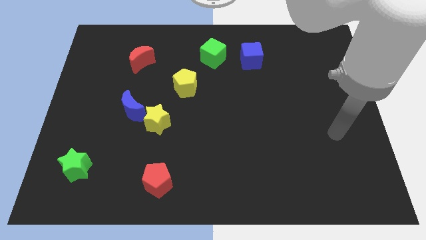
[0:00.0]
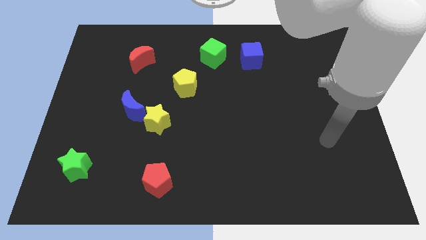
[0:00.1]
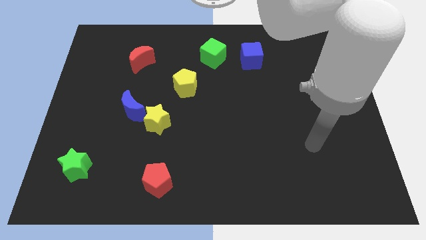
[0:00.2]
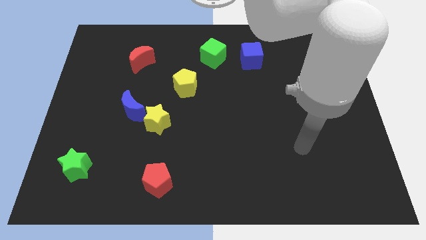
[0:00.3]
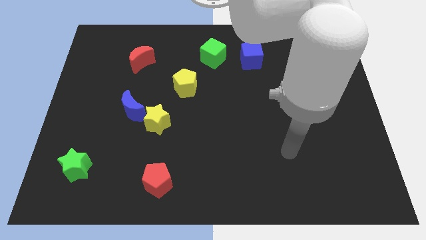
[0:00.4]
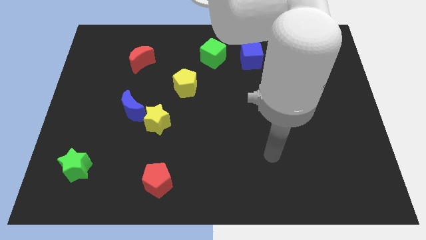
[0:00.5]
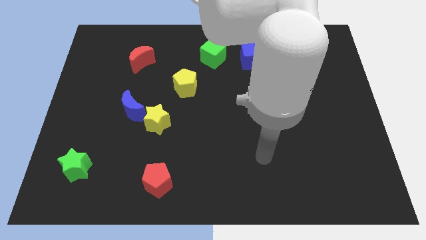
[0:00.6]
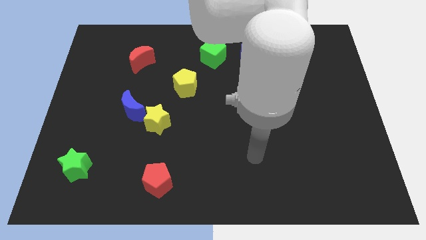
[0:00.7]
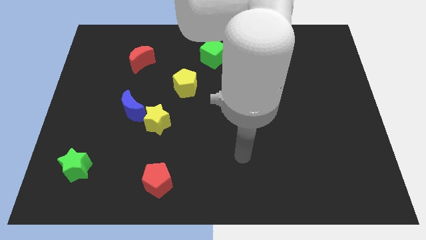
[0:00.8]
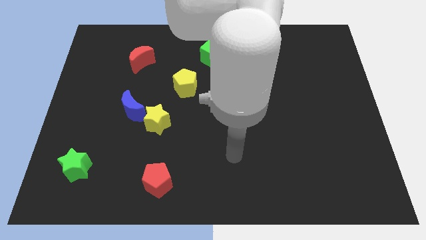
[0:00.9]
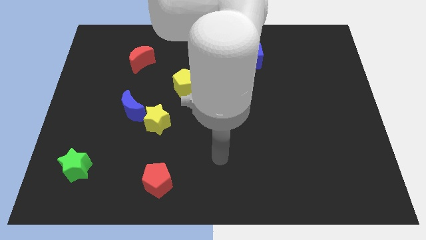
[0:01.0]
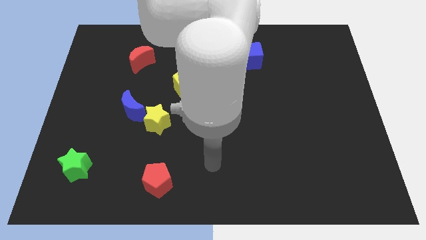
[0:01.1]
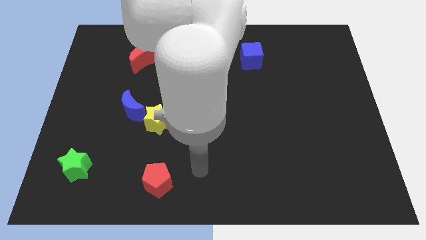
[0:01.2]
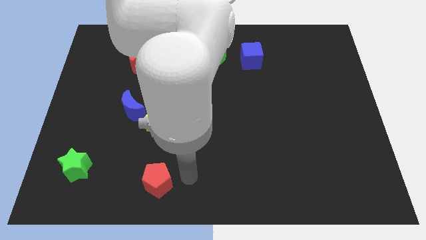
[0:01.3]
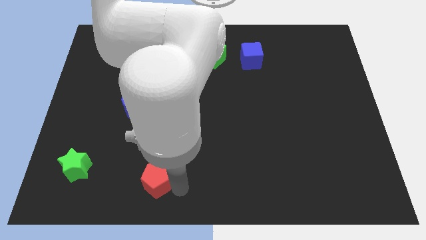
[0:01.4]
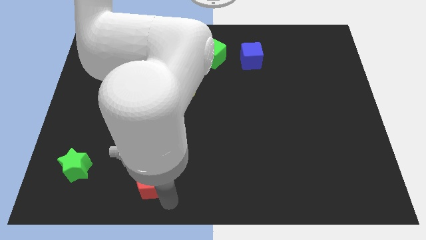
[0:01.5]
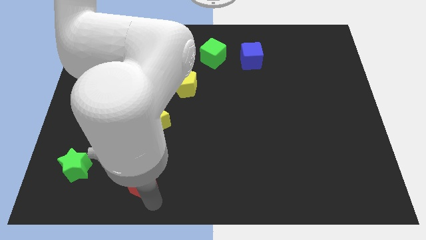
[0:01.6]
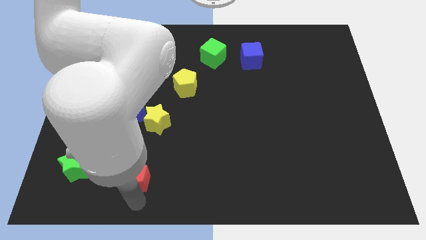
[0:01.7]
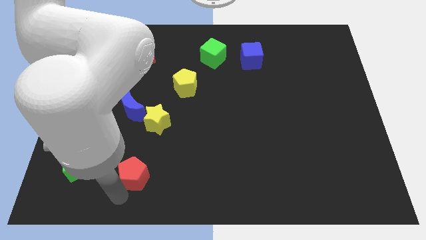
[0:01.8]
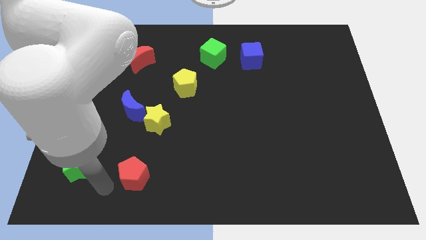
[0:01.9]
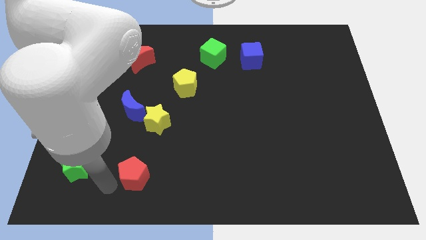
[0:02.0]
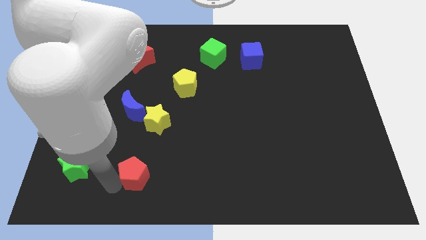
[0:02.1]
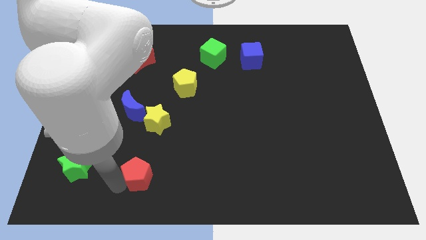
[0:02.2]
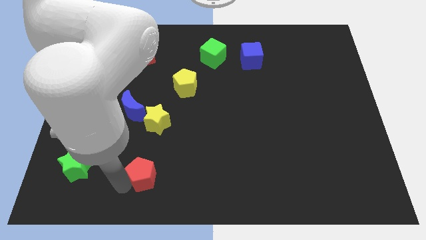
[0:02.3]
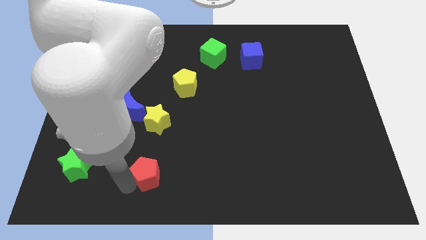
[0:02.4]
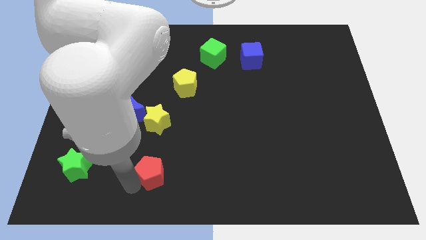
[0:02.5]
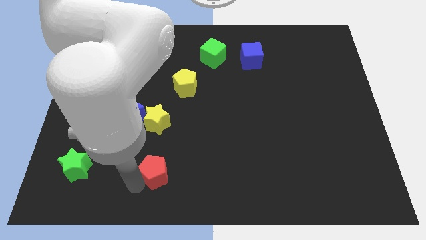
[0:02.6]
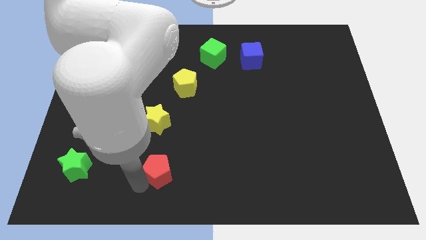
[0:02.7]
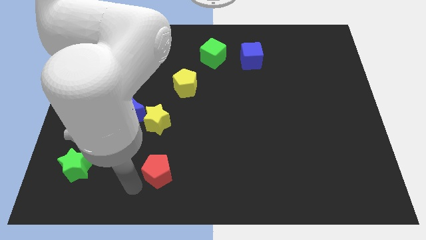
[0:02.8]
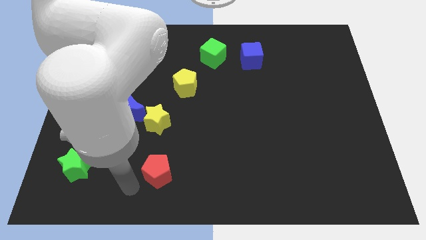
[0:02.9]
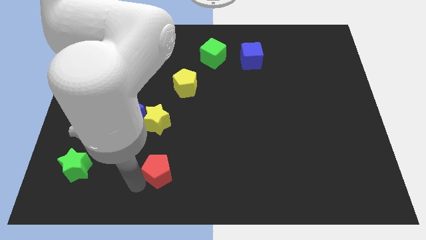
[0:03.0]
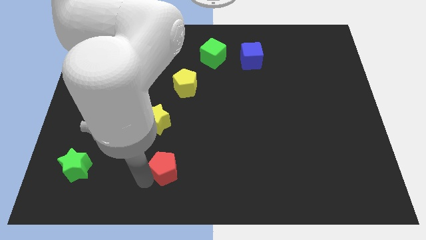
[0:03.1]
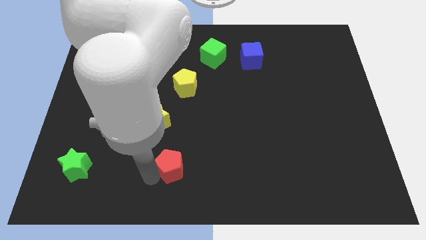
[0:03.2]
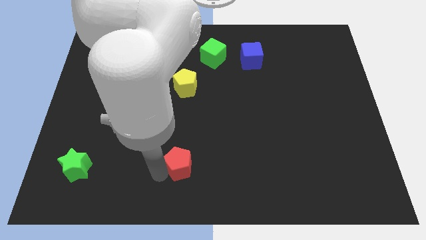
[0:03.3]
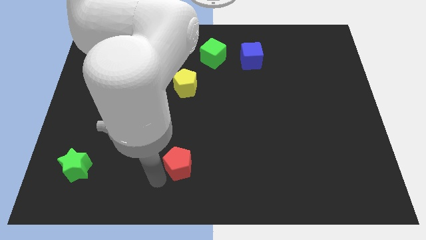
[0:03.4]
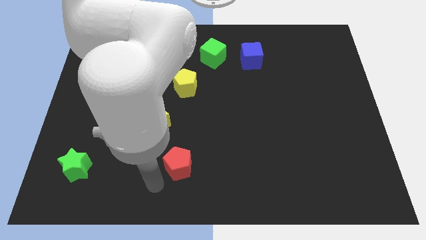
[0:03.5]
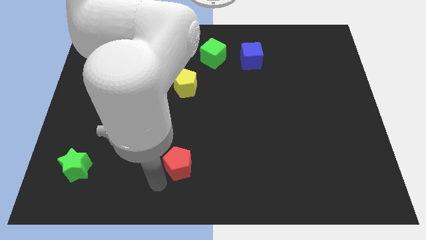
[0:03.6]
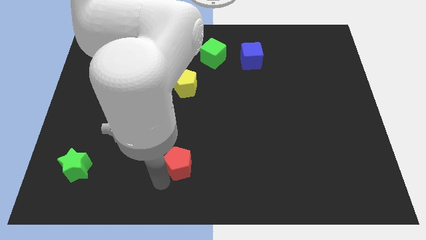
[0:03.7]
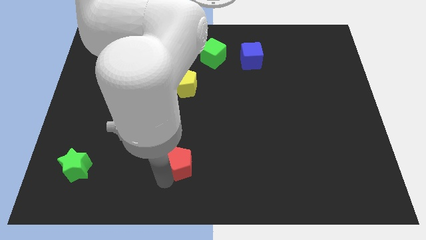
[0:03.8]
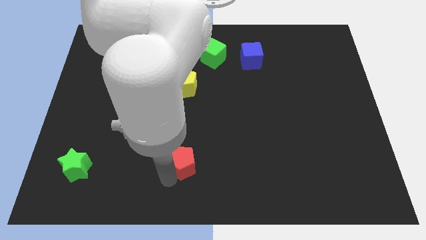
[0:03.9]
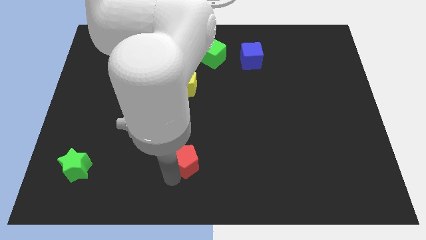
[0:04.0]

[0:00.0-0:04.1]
move the red pentagon a little upwards and then to the right

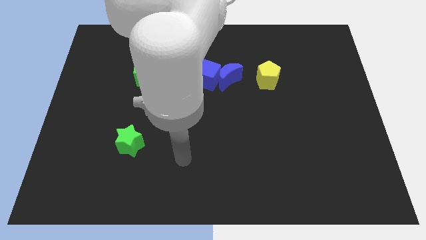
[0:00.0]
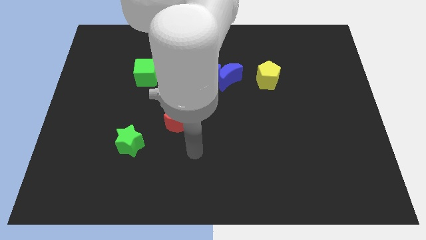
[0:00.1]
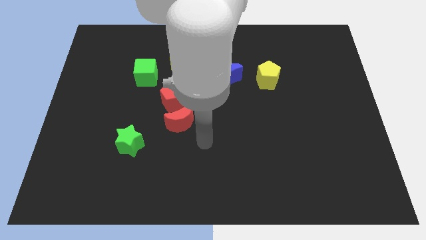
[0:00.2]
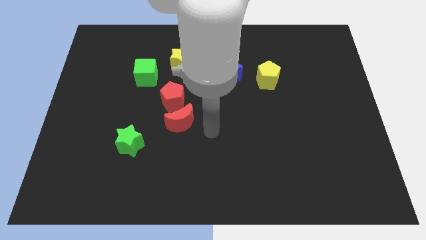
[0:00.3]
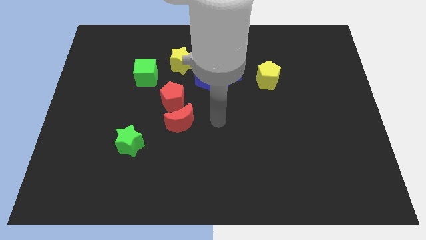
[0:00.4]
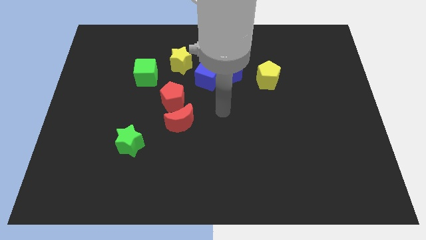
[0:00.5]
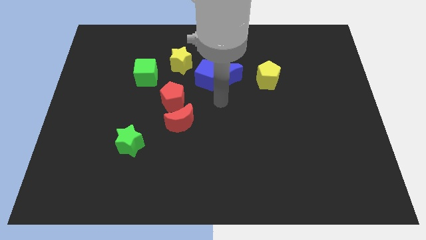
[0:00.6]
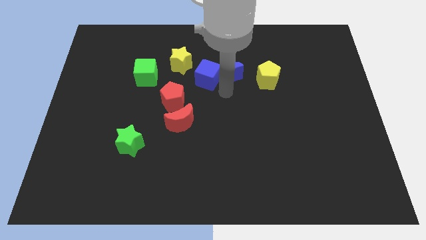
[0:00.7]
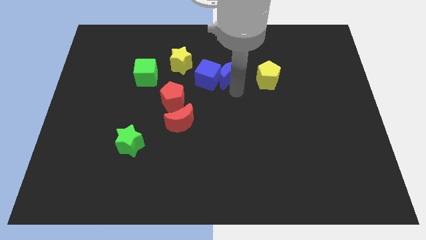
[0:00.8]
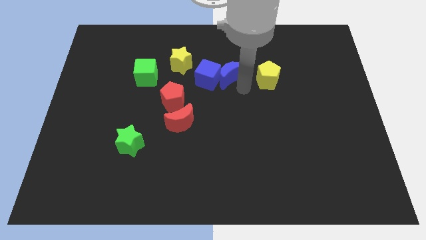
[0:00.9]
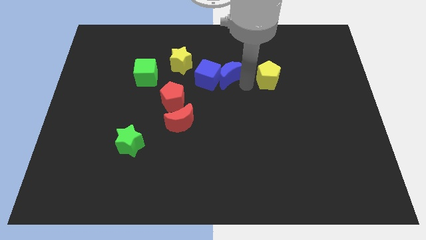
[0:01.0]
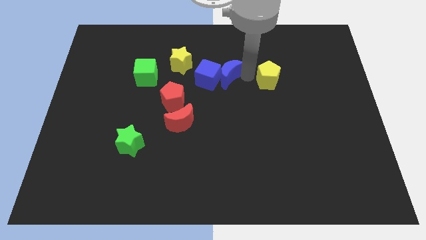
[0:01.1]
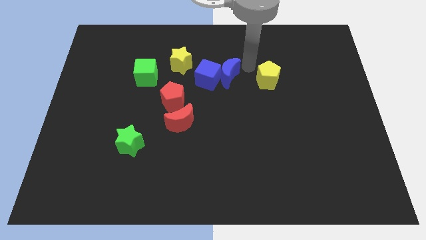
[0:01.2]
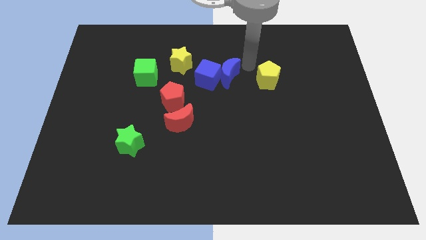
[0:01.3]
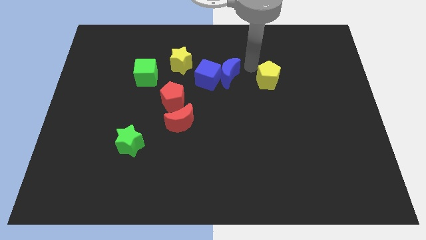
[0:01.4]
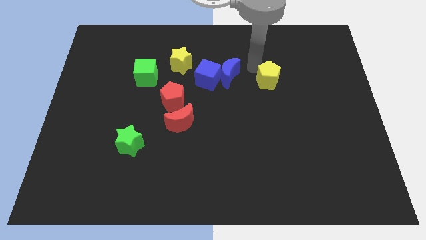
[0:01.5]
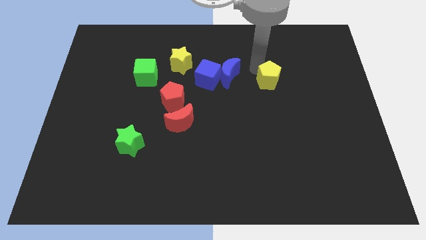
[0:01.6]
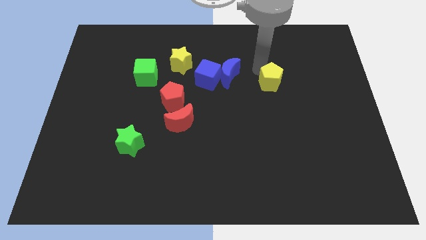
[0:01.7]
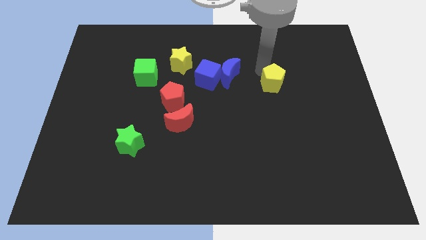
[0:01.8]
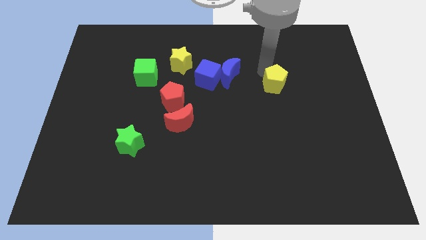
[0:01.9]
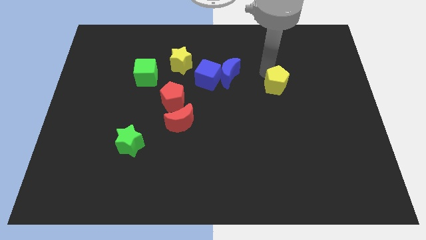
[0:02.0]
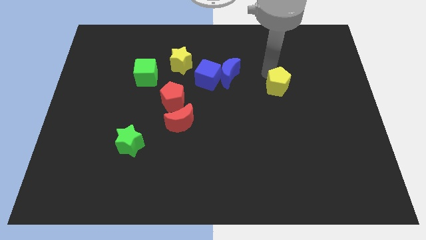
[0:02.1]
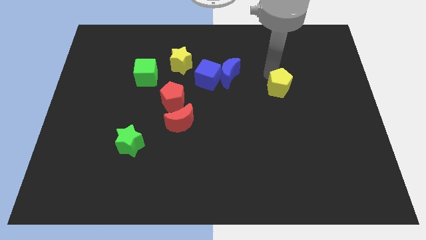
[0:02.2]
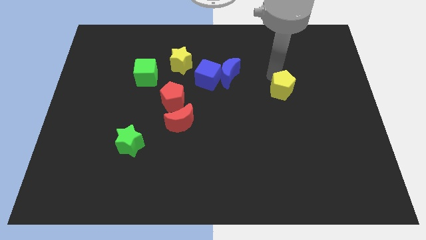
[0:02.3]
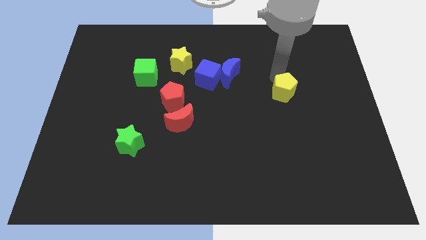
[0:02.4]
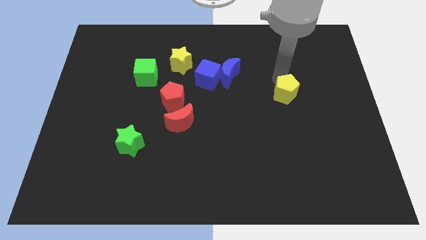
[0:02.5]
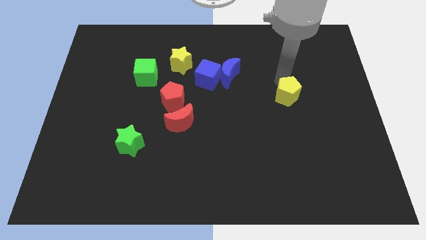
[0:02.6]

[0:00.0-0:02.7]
slightly push the yellow pentagon downwards and right

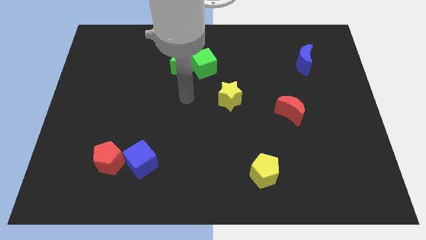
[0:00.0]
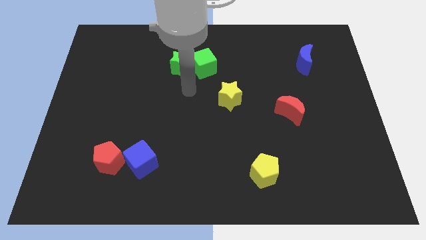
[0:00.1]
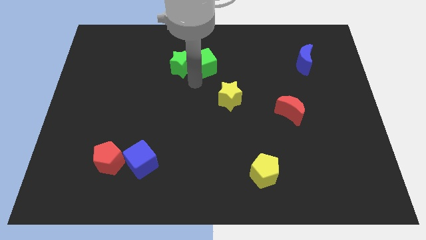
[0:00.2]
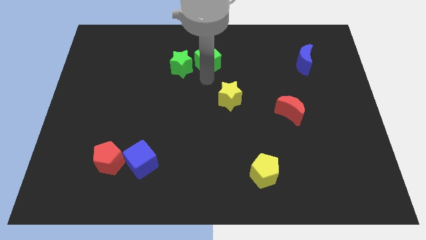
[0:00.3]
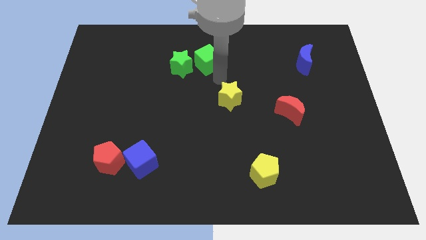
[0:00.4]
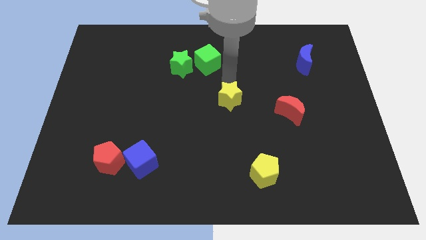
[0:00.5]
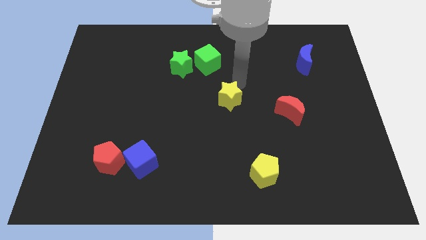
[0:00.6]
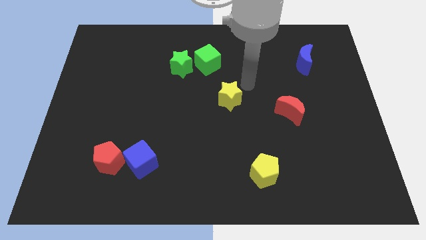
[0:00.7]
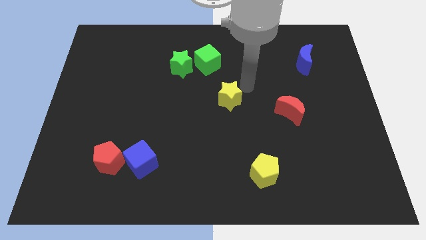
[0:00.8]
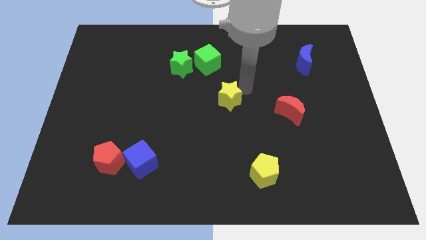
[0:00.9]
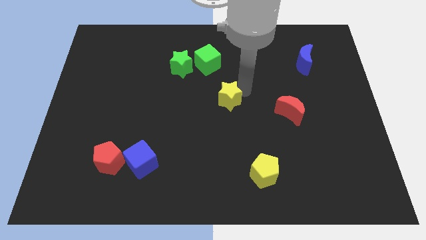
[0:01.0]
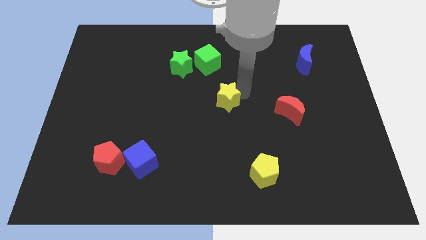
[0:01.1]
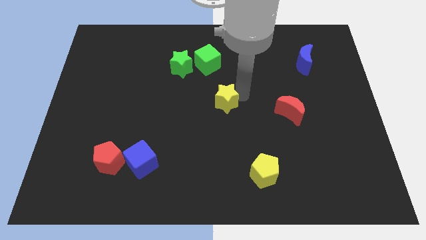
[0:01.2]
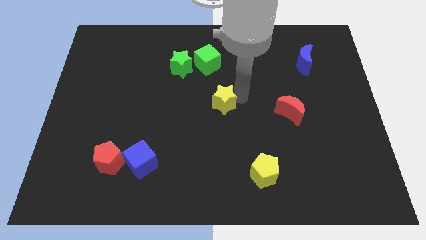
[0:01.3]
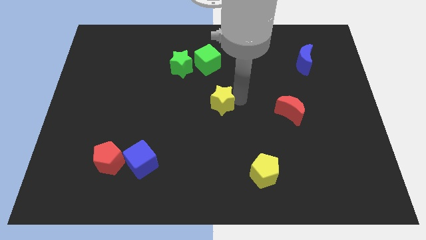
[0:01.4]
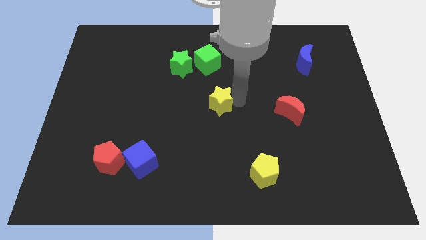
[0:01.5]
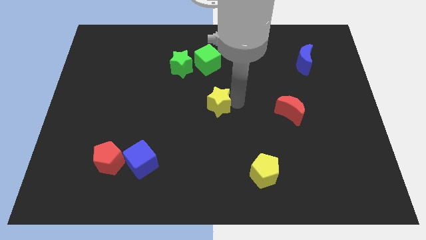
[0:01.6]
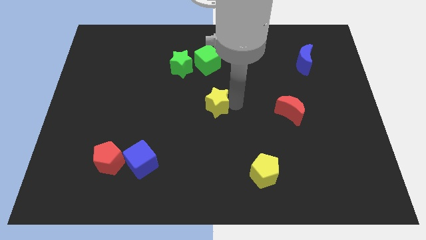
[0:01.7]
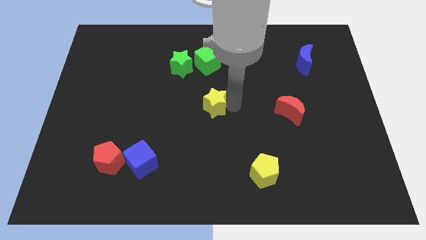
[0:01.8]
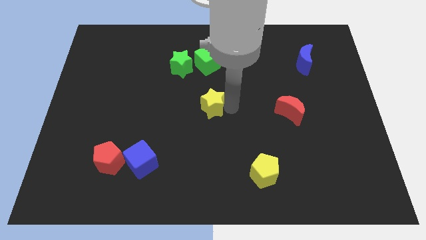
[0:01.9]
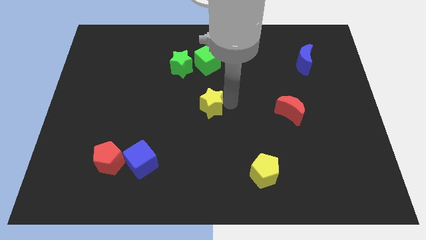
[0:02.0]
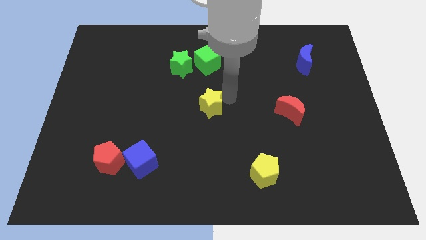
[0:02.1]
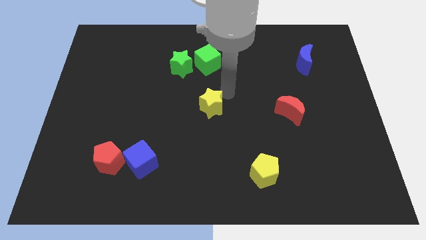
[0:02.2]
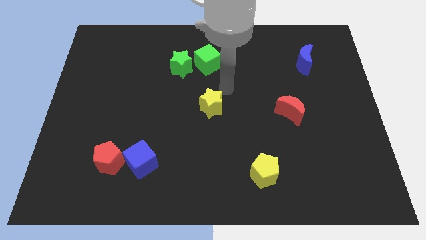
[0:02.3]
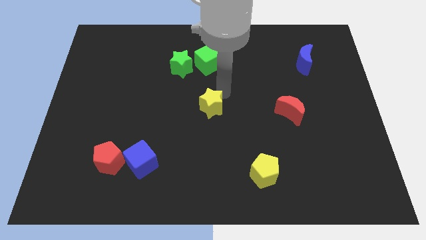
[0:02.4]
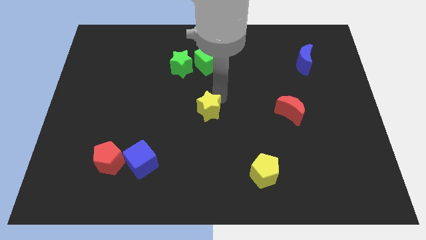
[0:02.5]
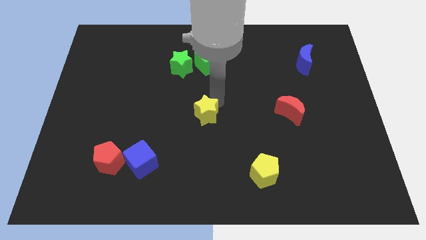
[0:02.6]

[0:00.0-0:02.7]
slide the yellow star downwards and left diagonally somewhat
